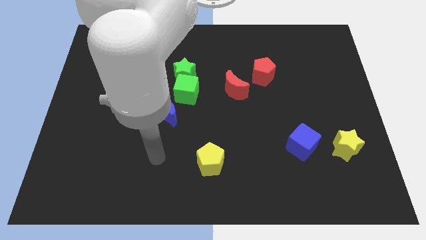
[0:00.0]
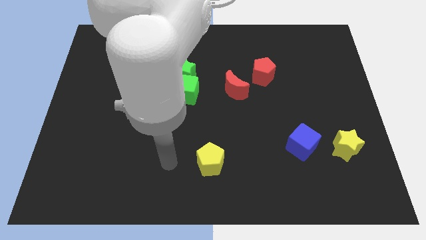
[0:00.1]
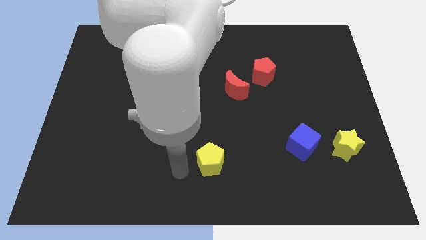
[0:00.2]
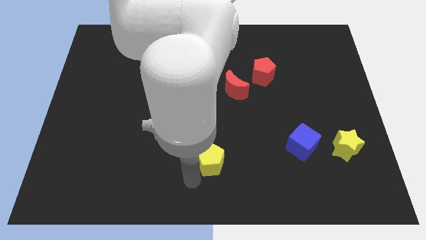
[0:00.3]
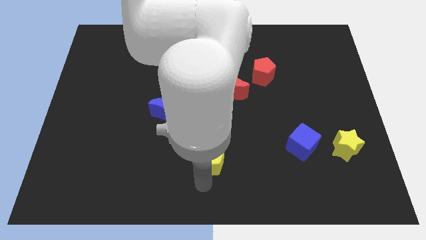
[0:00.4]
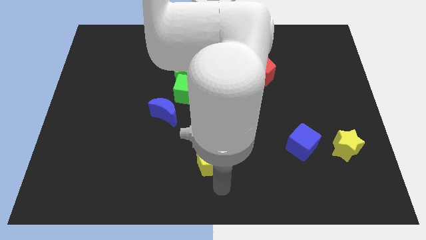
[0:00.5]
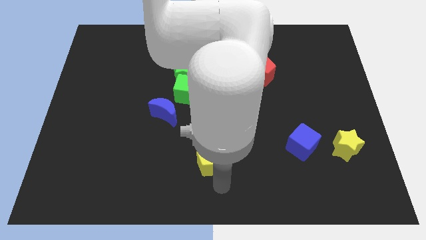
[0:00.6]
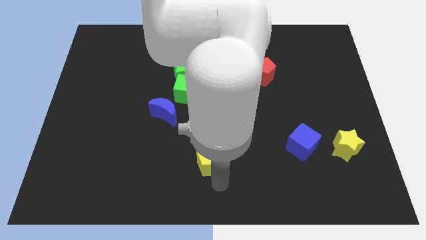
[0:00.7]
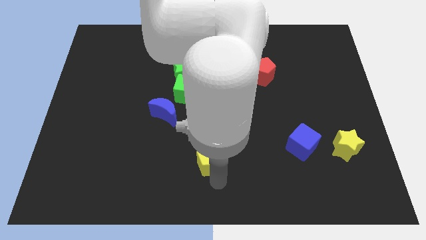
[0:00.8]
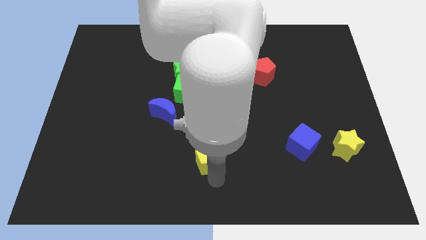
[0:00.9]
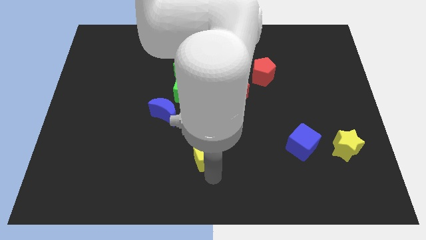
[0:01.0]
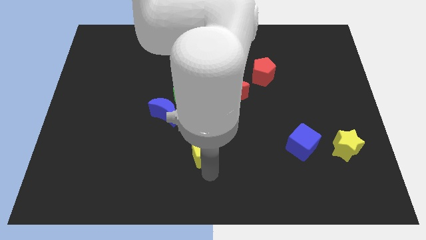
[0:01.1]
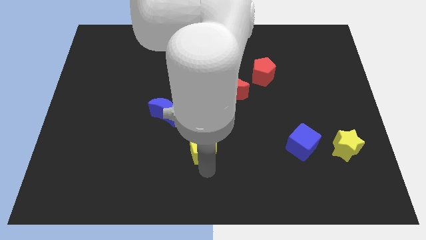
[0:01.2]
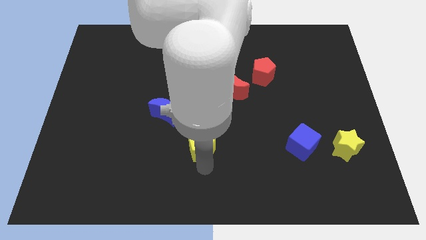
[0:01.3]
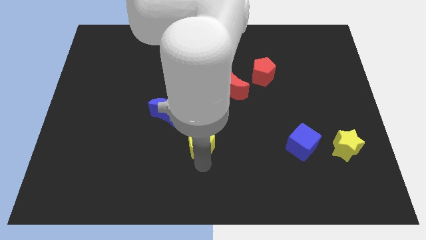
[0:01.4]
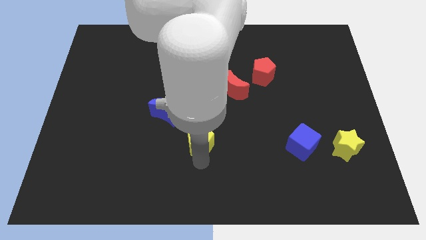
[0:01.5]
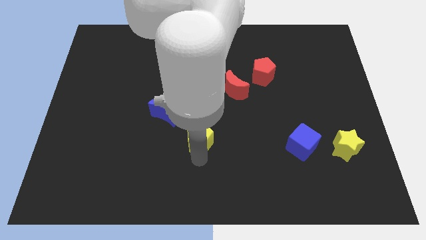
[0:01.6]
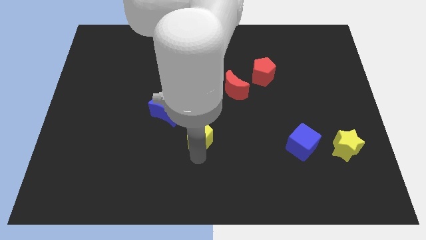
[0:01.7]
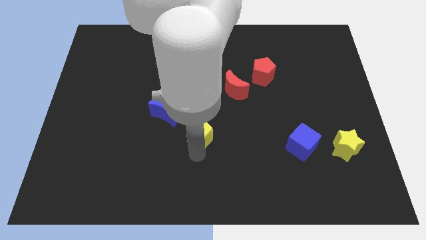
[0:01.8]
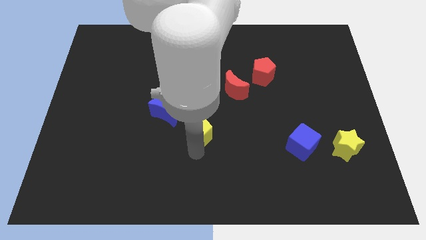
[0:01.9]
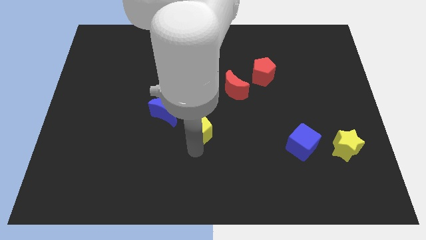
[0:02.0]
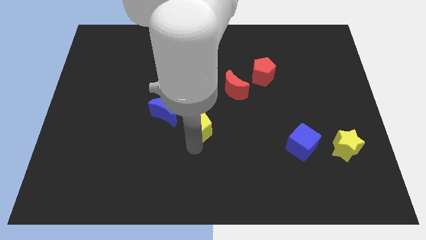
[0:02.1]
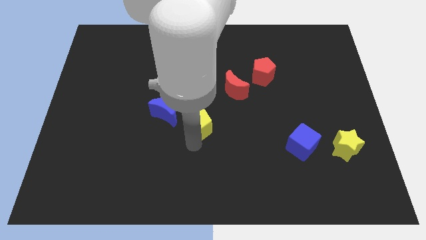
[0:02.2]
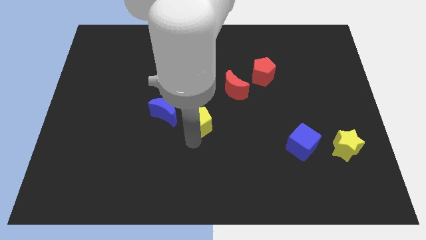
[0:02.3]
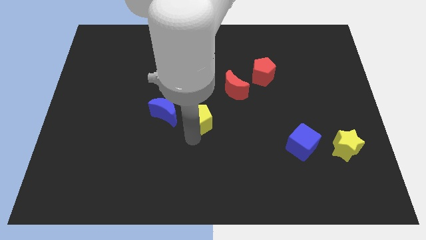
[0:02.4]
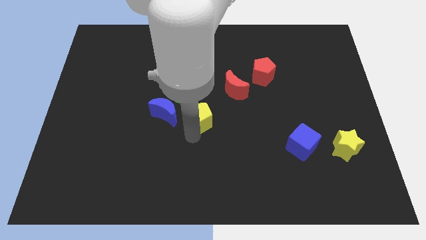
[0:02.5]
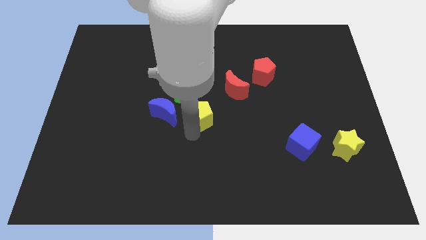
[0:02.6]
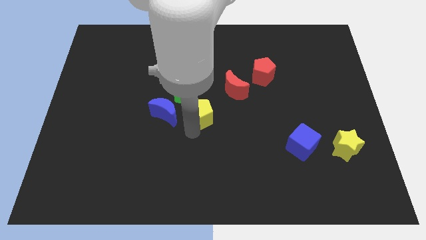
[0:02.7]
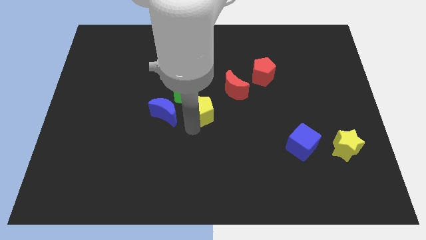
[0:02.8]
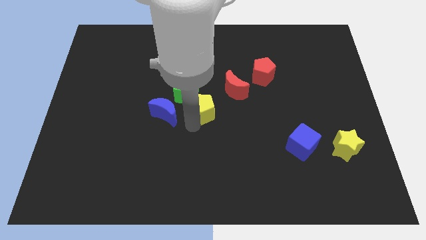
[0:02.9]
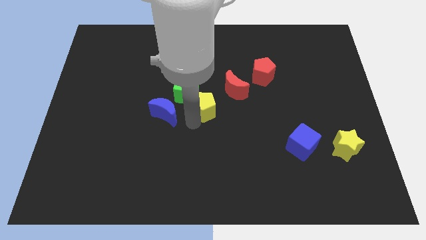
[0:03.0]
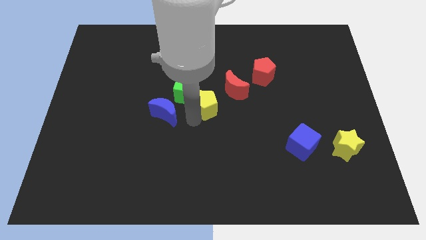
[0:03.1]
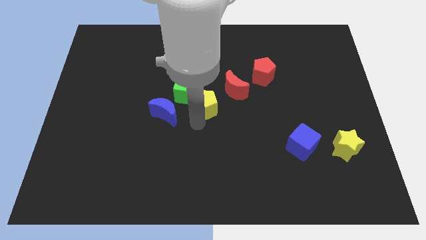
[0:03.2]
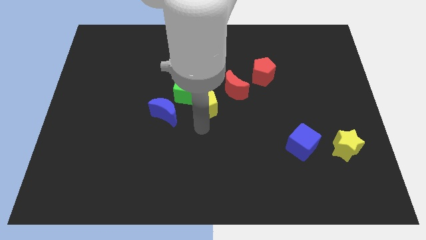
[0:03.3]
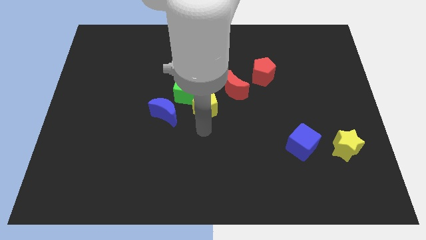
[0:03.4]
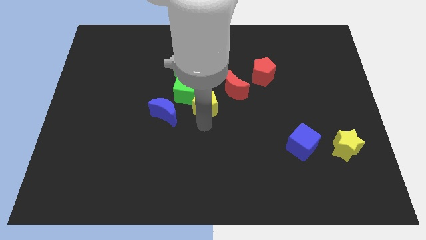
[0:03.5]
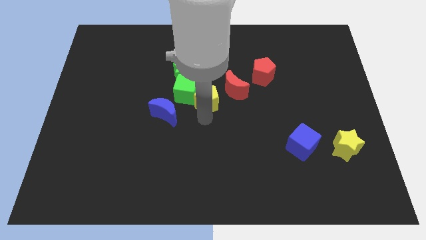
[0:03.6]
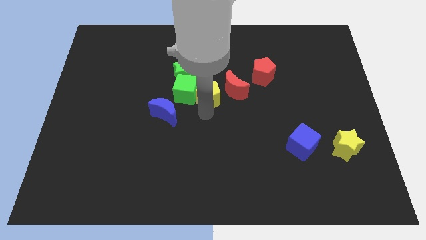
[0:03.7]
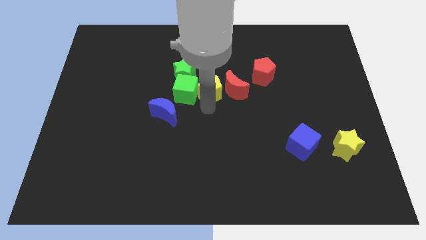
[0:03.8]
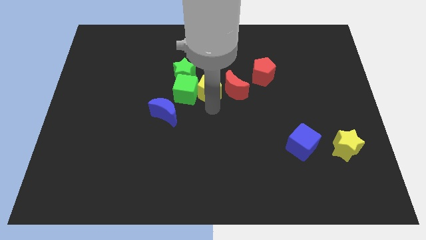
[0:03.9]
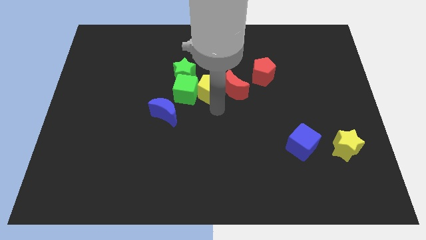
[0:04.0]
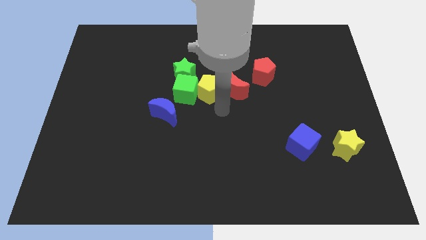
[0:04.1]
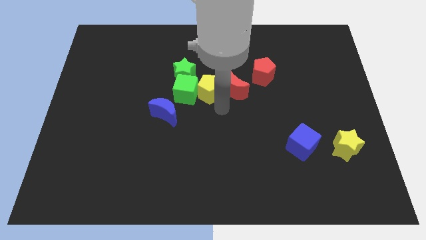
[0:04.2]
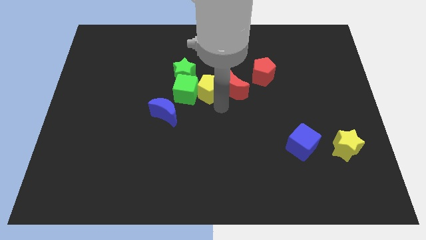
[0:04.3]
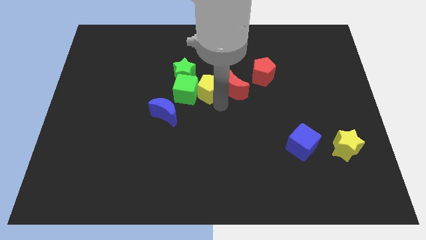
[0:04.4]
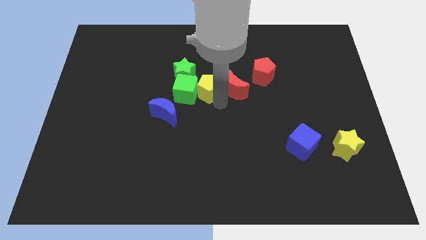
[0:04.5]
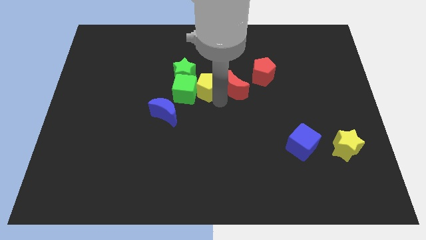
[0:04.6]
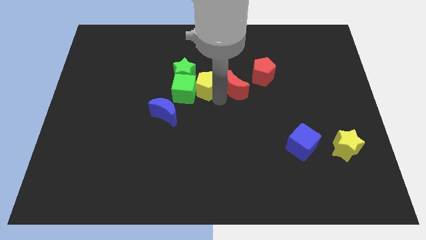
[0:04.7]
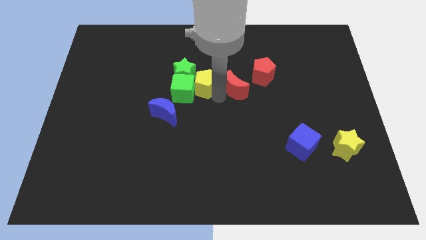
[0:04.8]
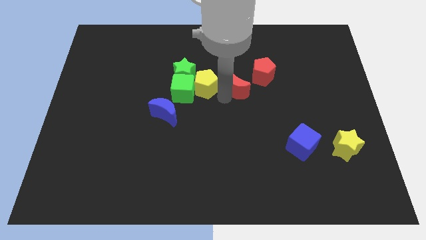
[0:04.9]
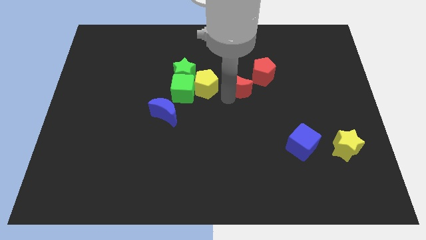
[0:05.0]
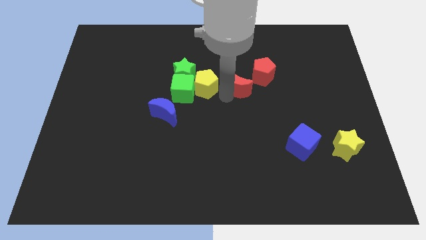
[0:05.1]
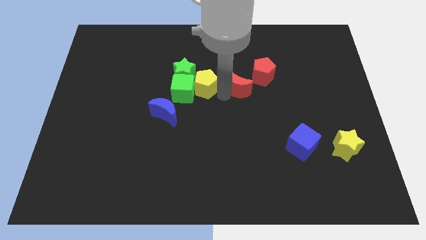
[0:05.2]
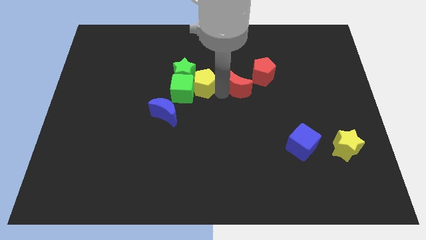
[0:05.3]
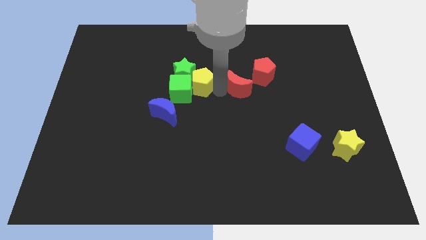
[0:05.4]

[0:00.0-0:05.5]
slide the yellow pentagon next to the green star

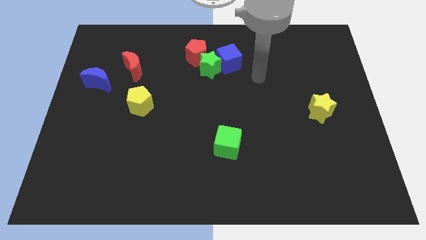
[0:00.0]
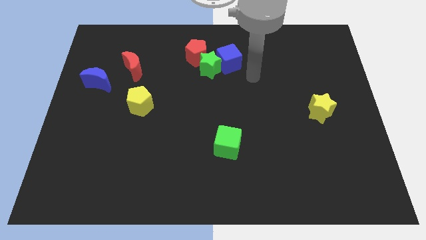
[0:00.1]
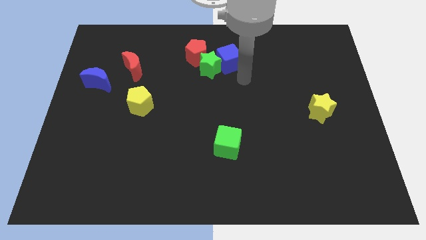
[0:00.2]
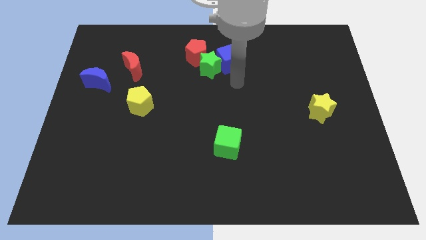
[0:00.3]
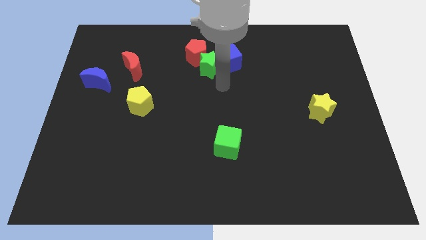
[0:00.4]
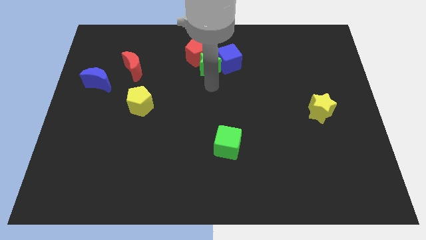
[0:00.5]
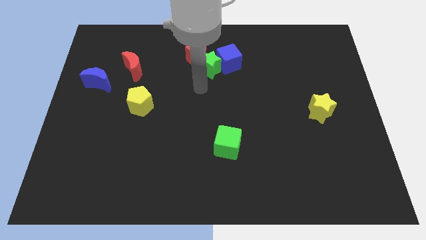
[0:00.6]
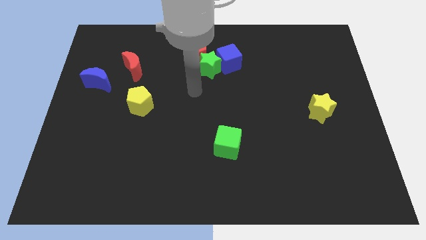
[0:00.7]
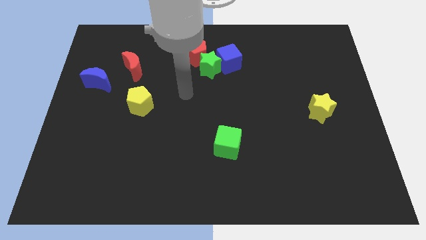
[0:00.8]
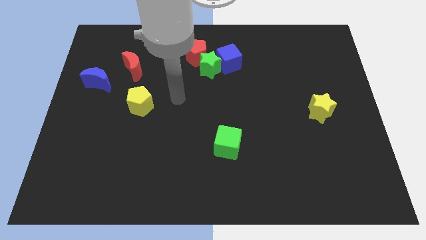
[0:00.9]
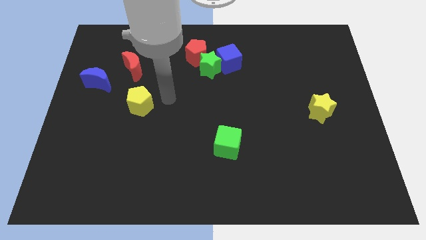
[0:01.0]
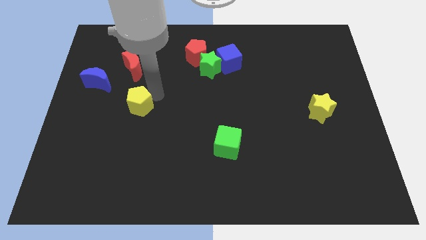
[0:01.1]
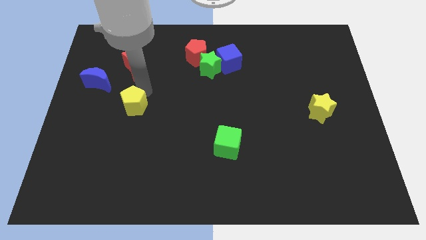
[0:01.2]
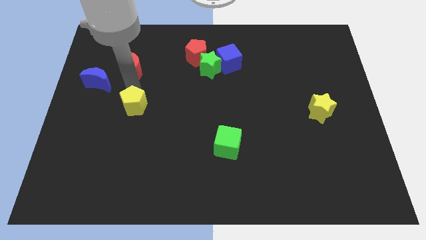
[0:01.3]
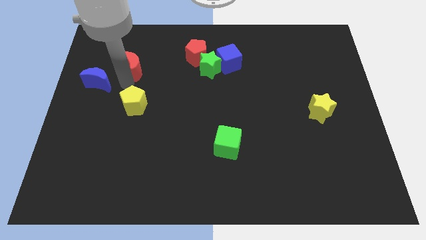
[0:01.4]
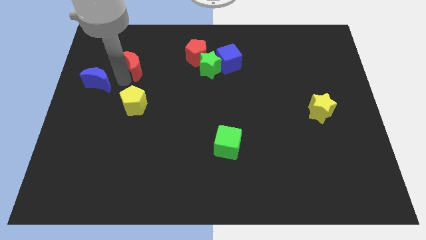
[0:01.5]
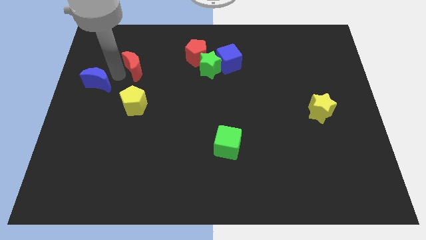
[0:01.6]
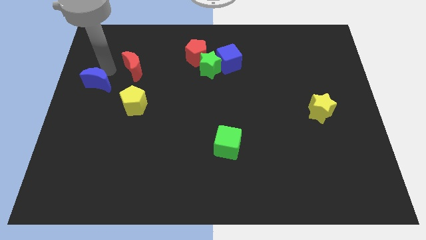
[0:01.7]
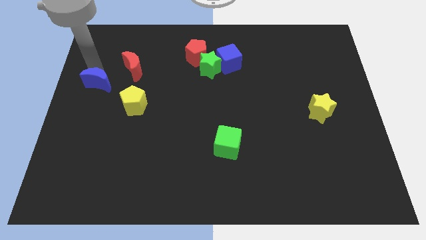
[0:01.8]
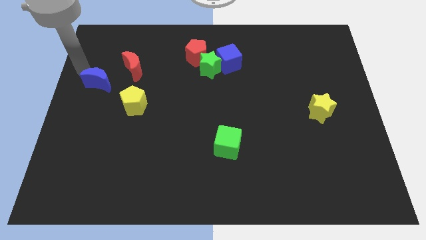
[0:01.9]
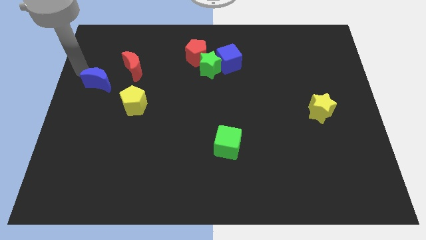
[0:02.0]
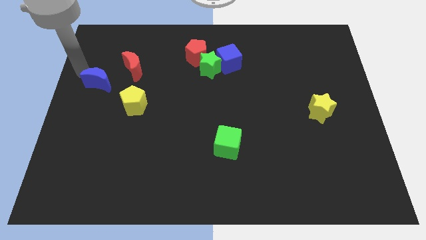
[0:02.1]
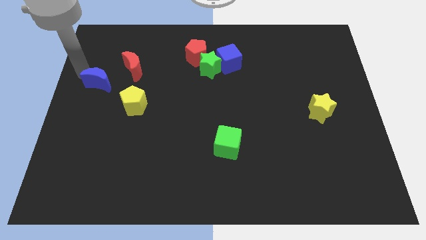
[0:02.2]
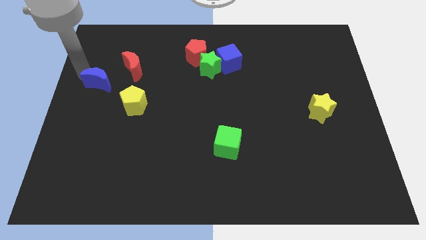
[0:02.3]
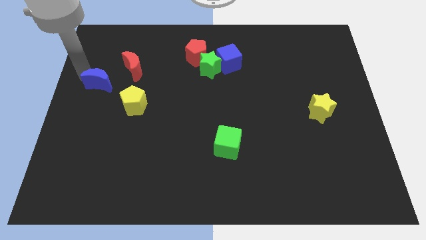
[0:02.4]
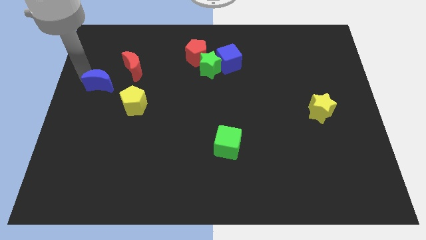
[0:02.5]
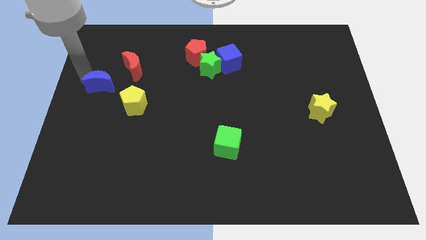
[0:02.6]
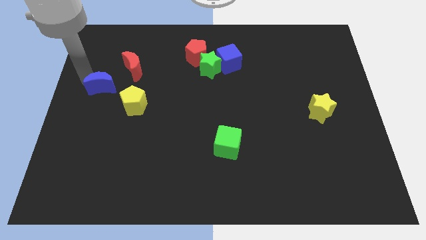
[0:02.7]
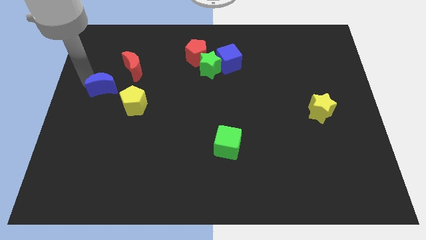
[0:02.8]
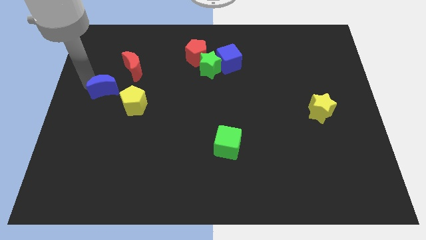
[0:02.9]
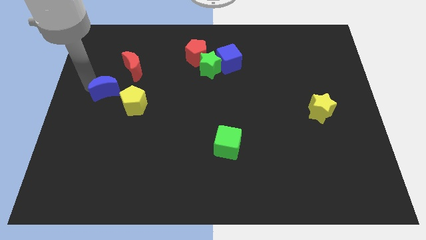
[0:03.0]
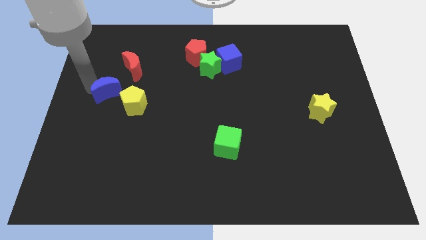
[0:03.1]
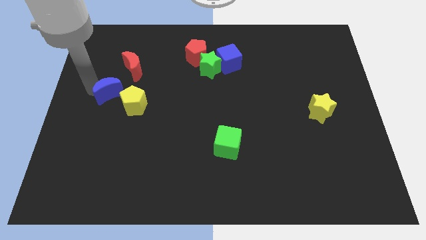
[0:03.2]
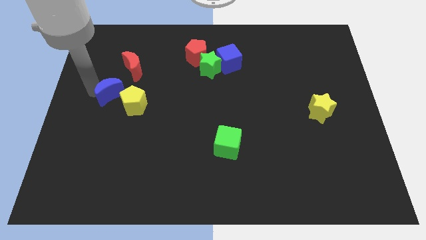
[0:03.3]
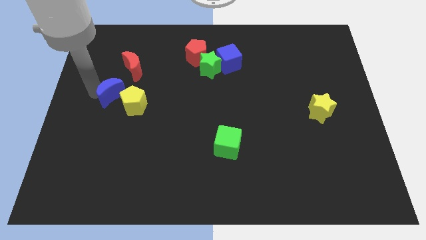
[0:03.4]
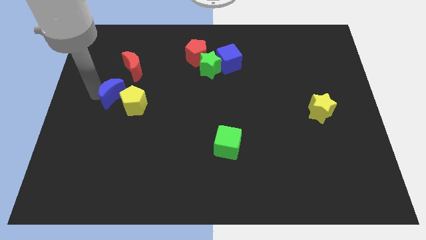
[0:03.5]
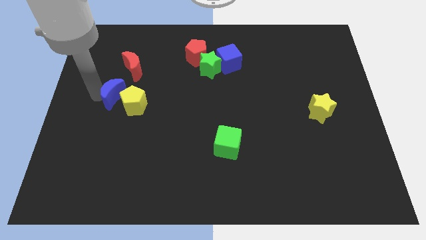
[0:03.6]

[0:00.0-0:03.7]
move the blue moon towards the yellow pentagon
